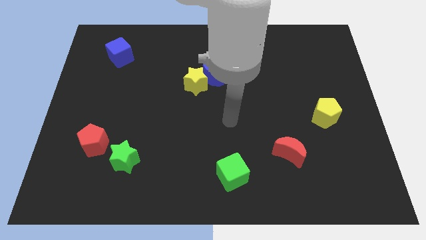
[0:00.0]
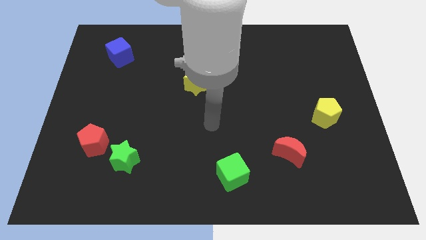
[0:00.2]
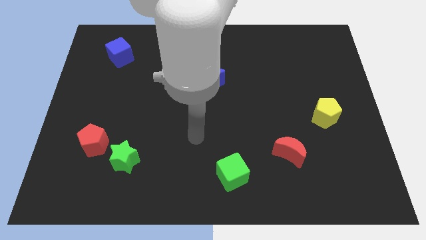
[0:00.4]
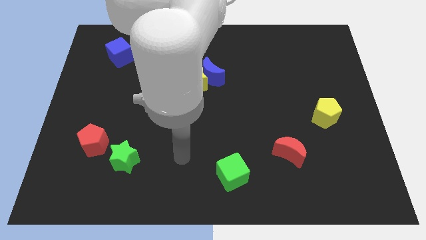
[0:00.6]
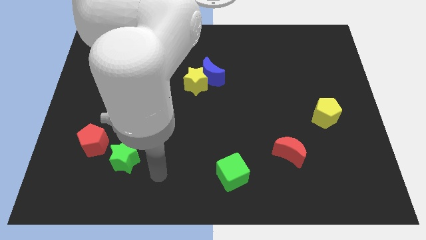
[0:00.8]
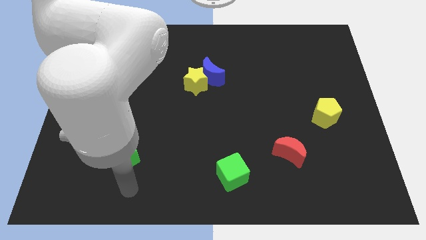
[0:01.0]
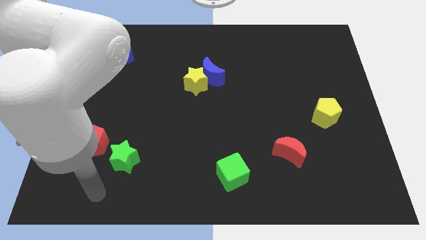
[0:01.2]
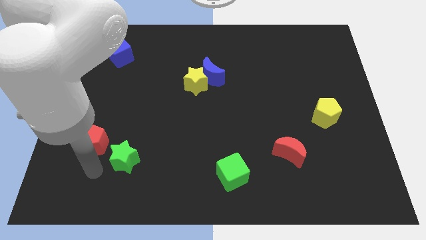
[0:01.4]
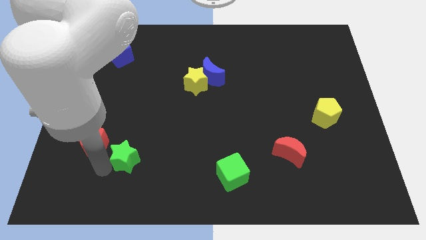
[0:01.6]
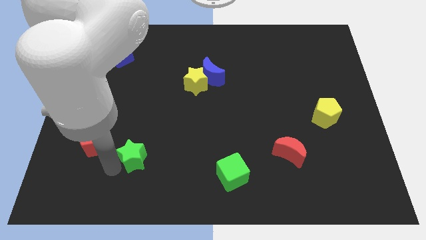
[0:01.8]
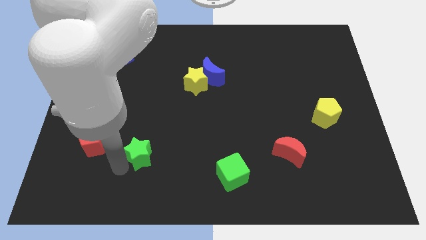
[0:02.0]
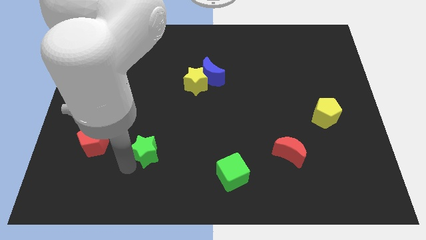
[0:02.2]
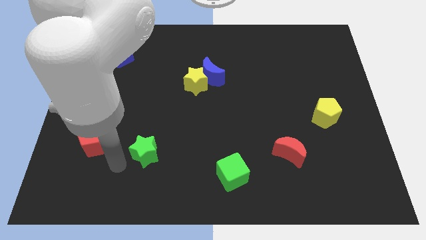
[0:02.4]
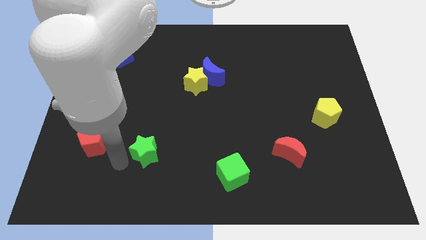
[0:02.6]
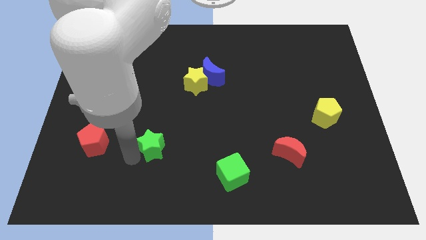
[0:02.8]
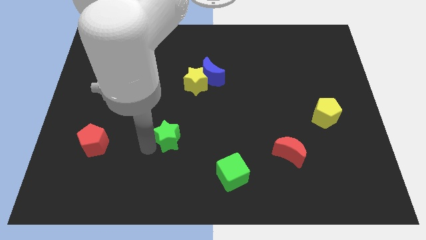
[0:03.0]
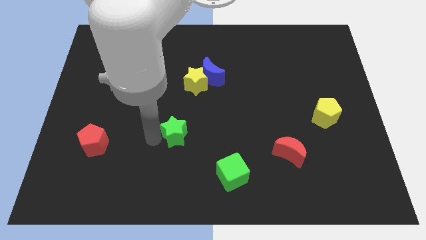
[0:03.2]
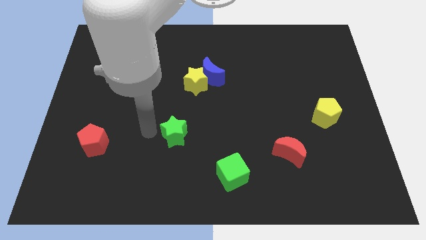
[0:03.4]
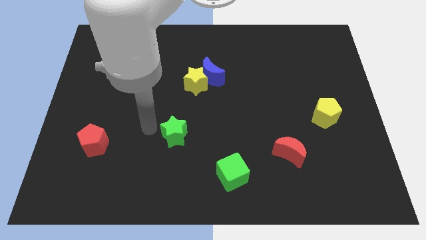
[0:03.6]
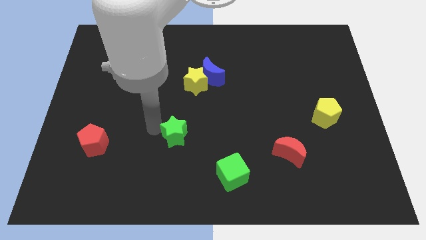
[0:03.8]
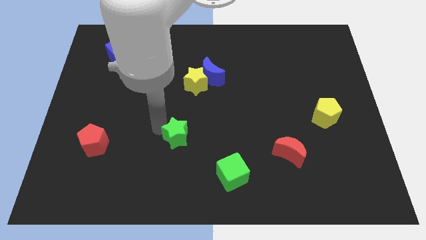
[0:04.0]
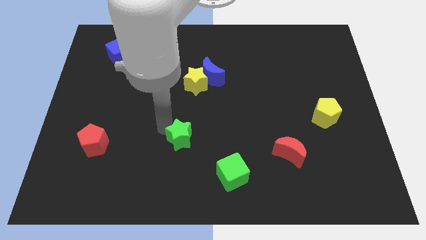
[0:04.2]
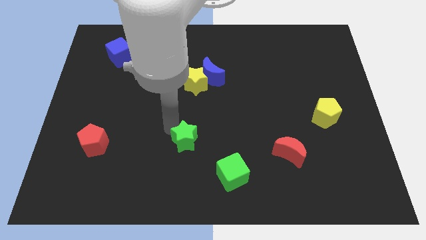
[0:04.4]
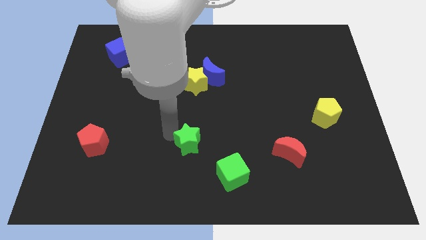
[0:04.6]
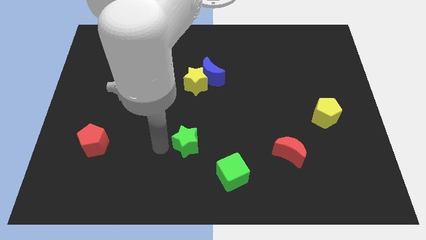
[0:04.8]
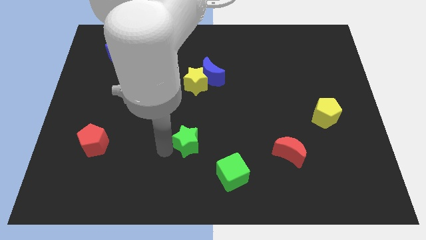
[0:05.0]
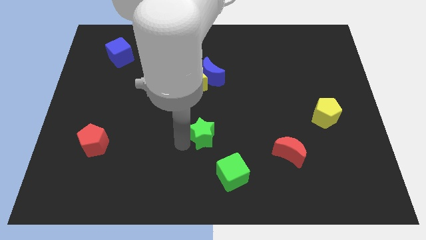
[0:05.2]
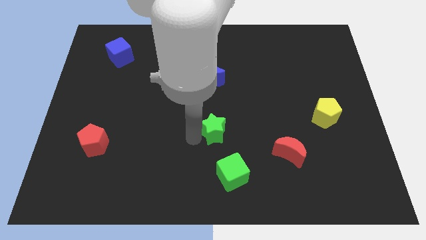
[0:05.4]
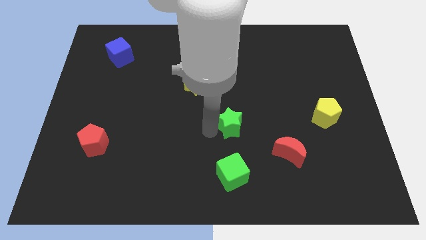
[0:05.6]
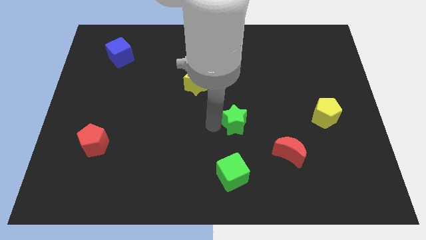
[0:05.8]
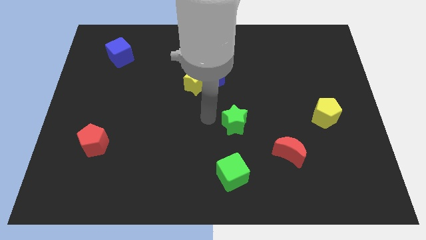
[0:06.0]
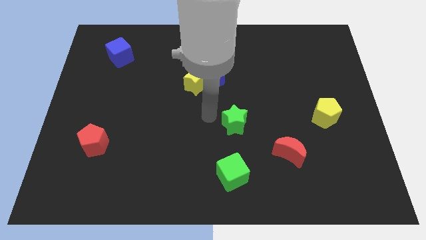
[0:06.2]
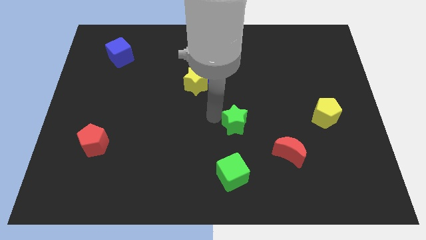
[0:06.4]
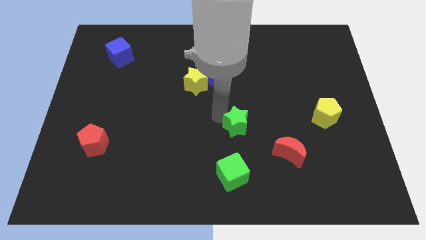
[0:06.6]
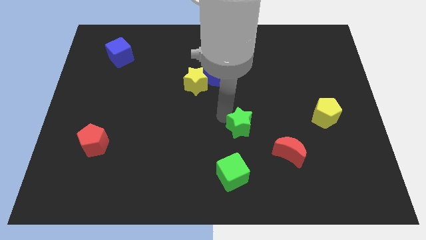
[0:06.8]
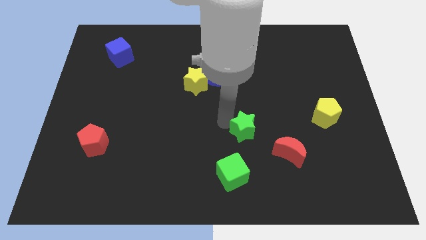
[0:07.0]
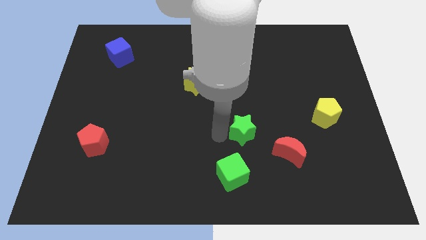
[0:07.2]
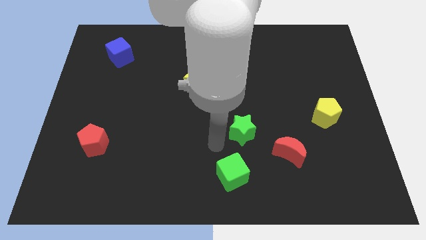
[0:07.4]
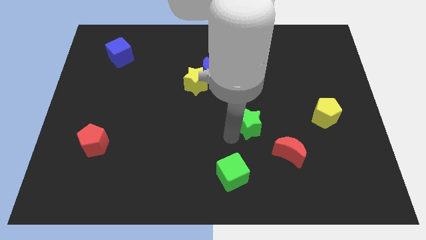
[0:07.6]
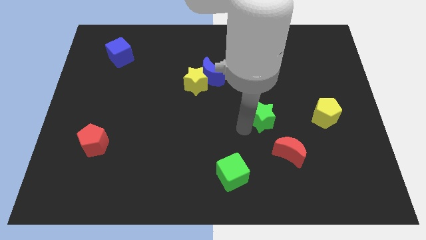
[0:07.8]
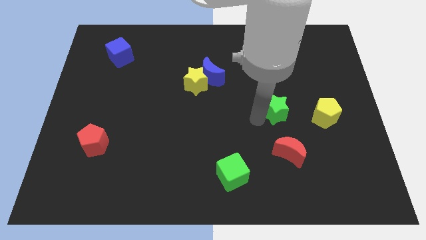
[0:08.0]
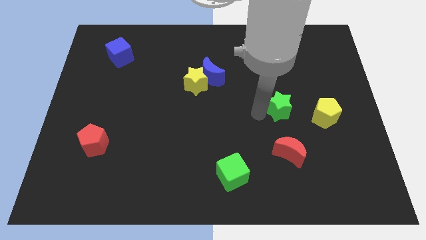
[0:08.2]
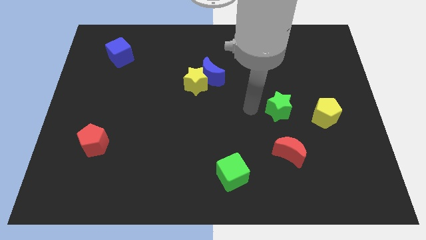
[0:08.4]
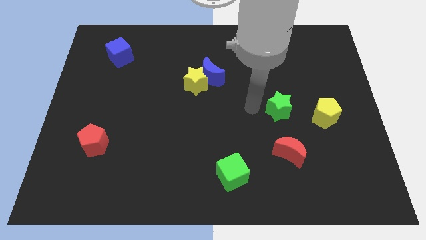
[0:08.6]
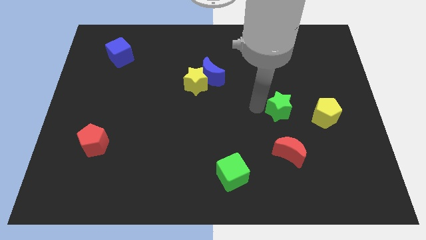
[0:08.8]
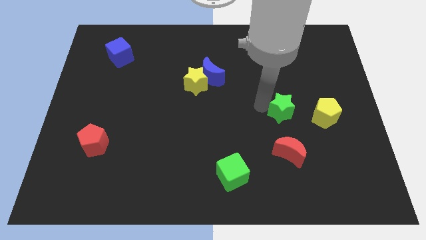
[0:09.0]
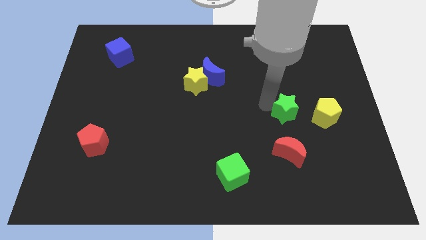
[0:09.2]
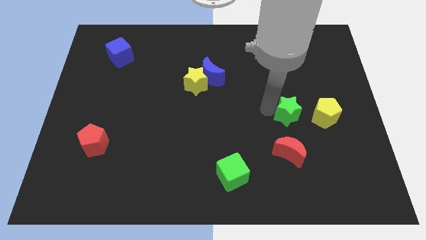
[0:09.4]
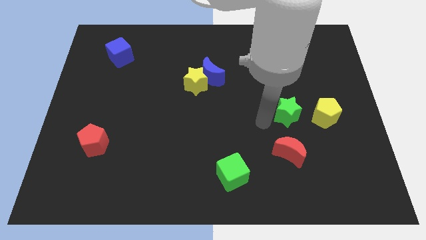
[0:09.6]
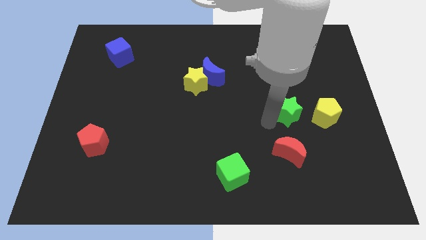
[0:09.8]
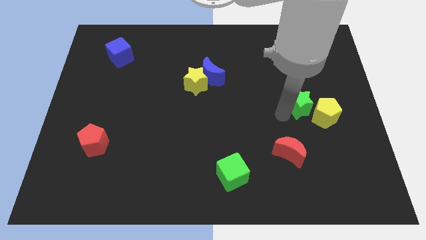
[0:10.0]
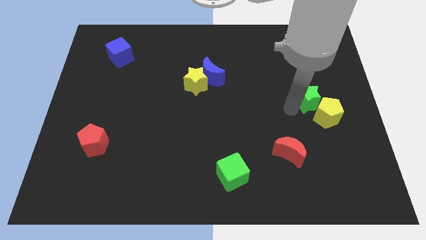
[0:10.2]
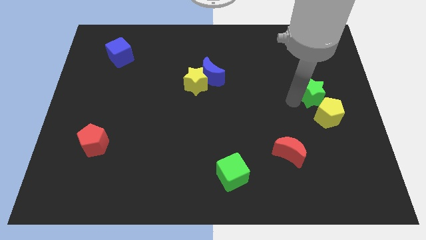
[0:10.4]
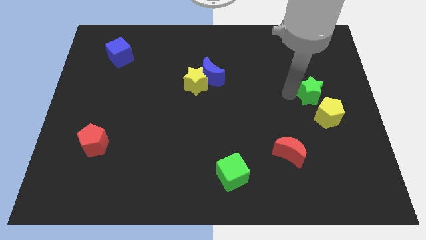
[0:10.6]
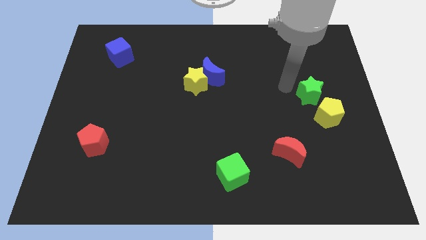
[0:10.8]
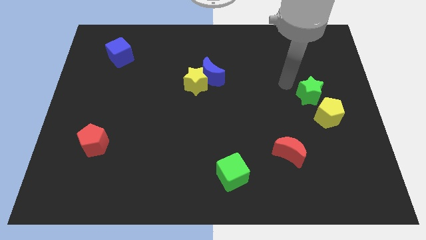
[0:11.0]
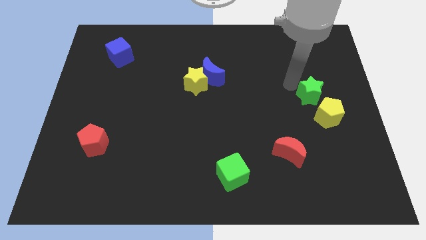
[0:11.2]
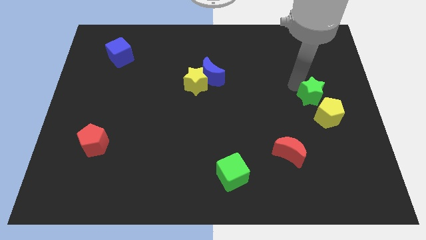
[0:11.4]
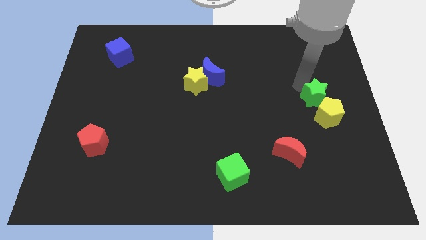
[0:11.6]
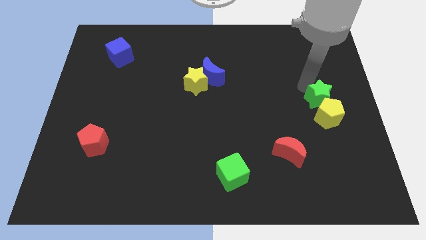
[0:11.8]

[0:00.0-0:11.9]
put the green star to the center right

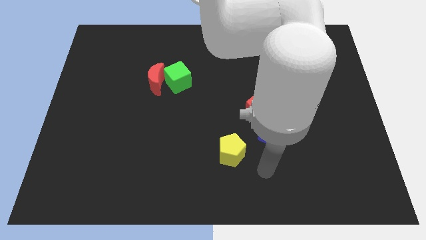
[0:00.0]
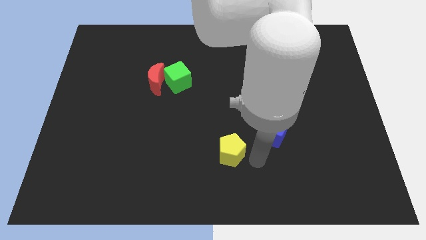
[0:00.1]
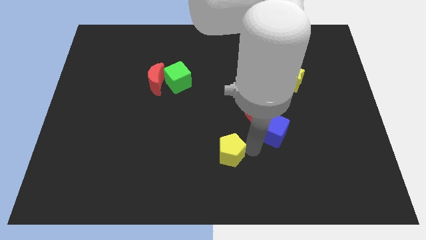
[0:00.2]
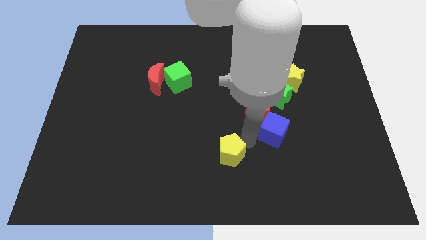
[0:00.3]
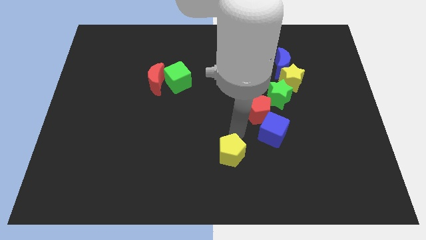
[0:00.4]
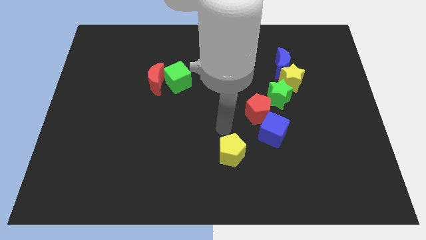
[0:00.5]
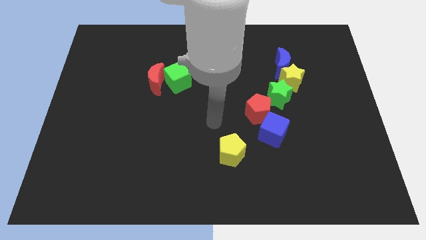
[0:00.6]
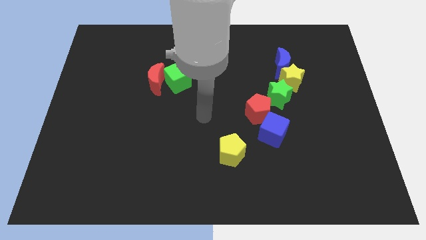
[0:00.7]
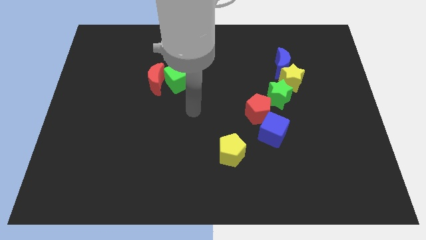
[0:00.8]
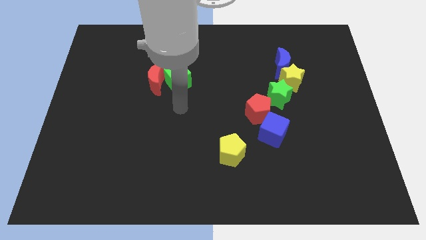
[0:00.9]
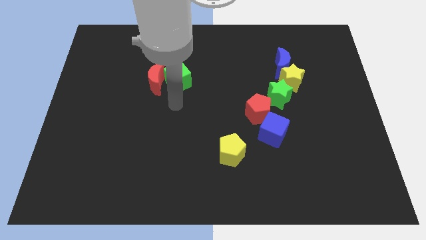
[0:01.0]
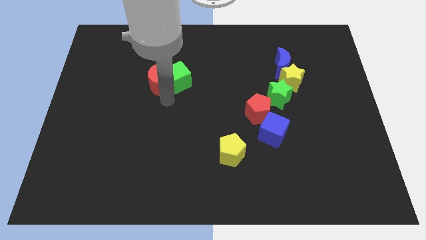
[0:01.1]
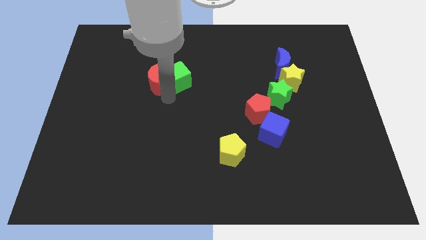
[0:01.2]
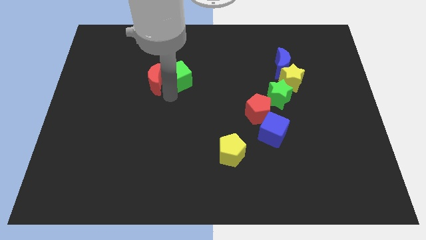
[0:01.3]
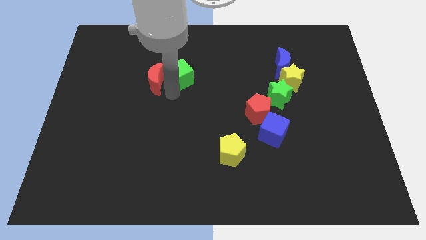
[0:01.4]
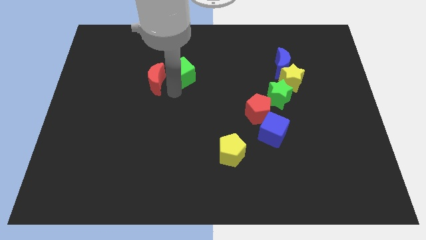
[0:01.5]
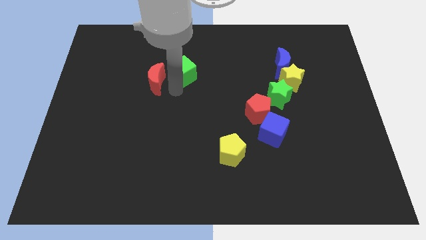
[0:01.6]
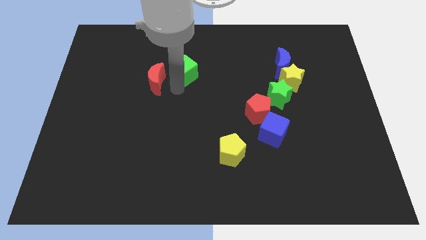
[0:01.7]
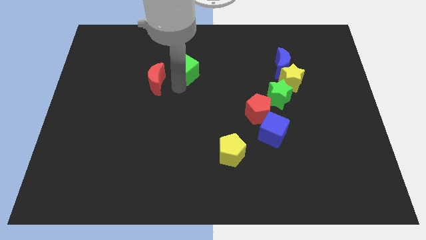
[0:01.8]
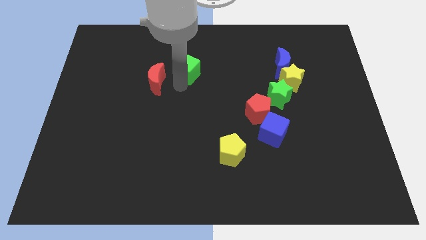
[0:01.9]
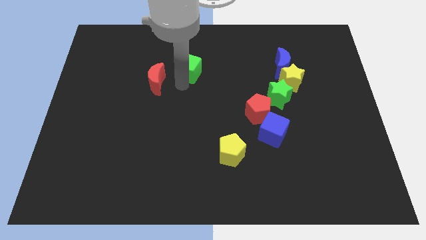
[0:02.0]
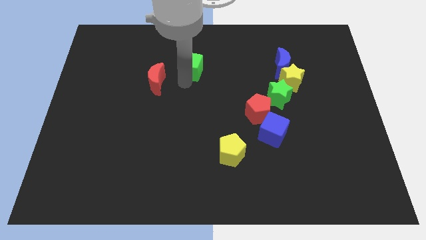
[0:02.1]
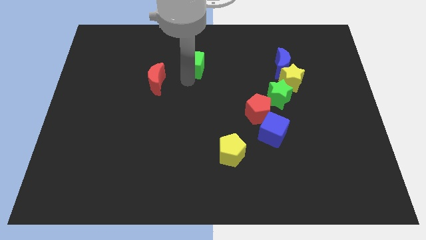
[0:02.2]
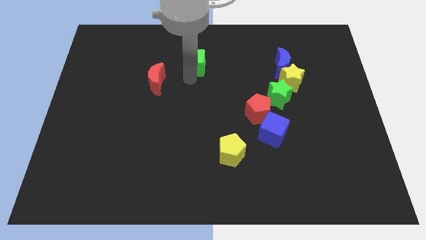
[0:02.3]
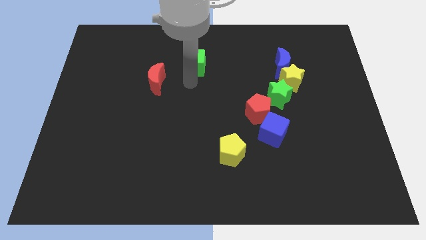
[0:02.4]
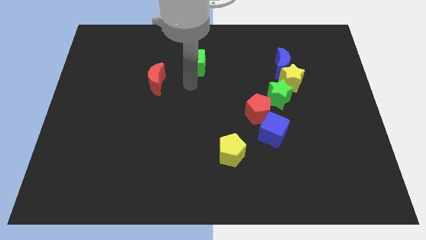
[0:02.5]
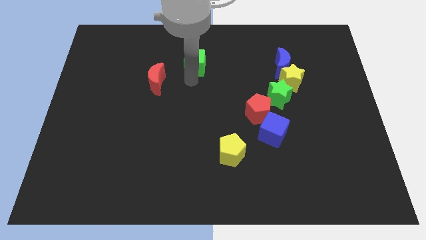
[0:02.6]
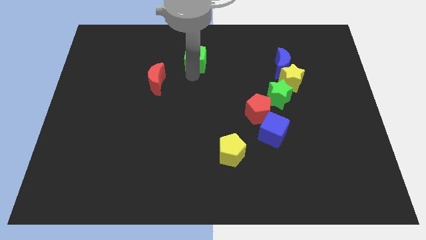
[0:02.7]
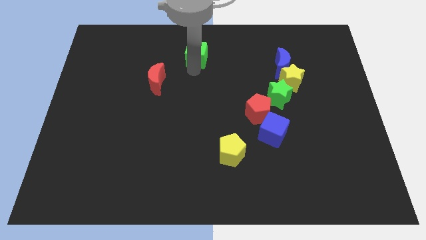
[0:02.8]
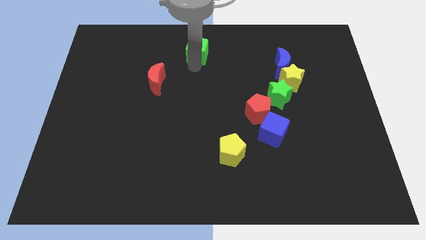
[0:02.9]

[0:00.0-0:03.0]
slide the green cube to the top
